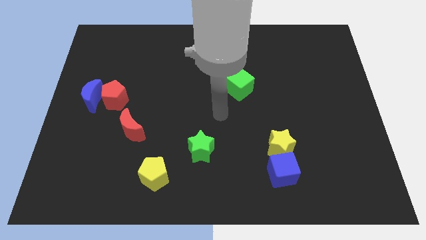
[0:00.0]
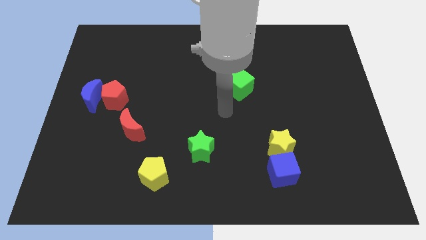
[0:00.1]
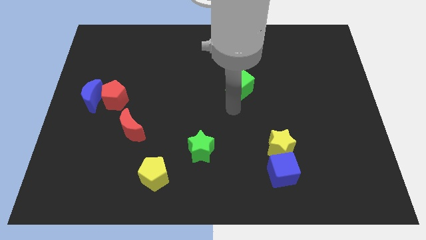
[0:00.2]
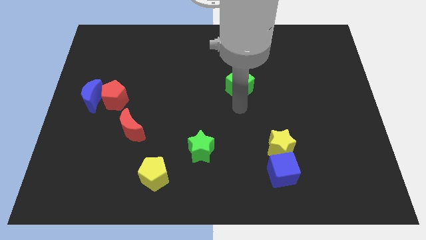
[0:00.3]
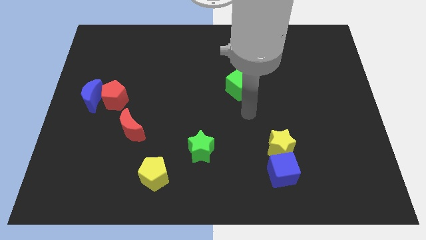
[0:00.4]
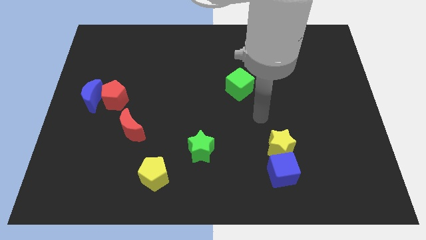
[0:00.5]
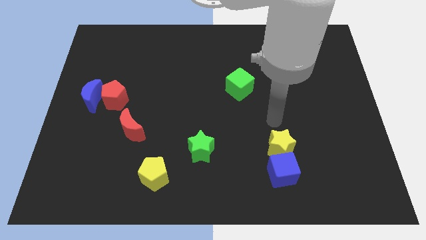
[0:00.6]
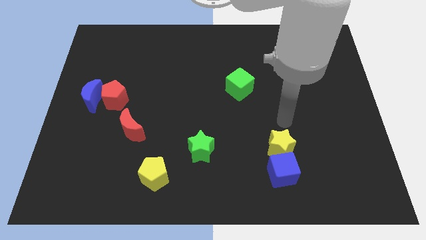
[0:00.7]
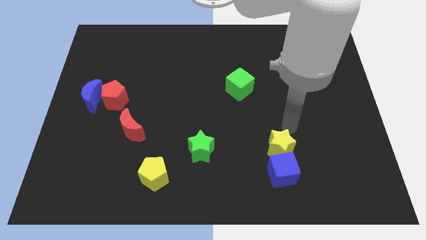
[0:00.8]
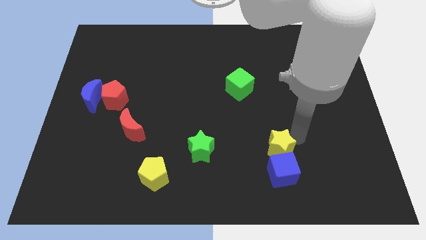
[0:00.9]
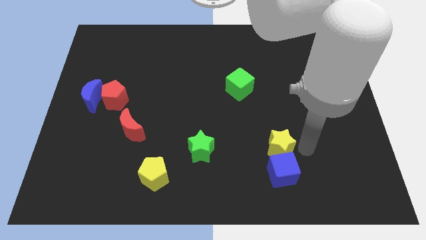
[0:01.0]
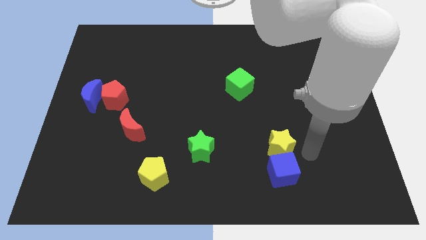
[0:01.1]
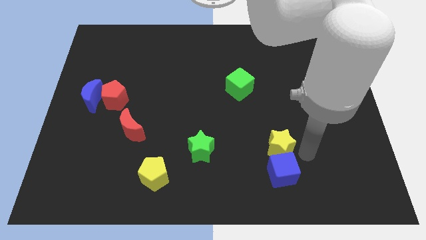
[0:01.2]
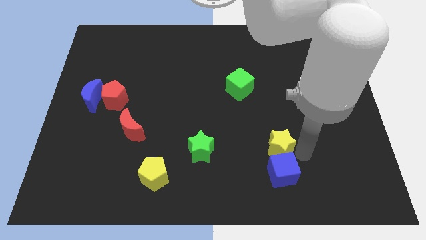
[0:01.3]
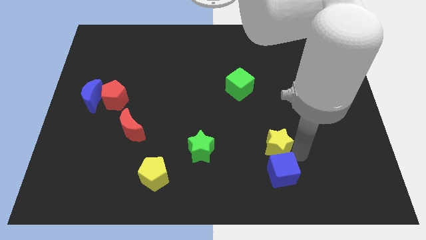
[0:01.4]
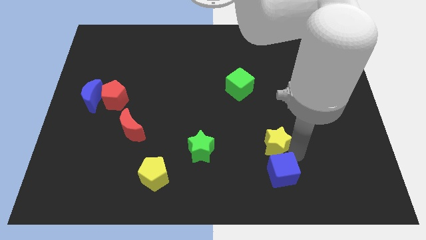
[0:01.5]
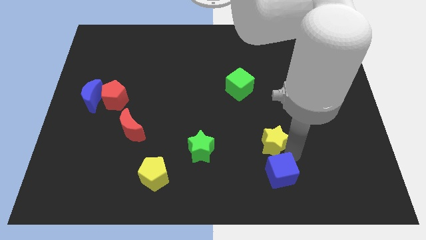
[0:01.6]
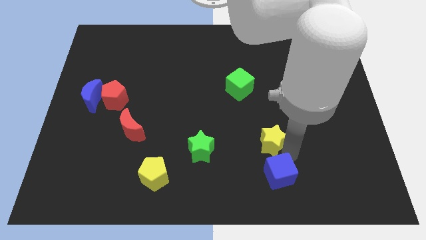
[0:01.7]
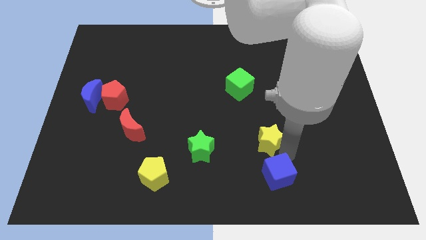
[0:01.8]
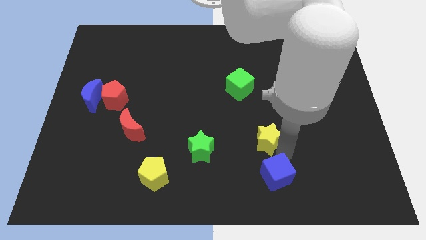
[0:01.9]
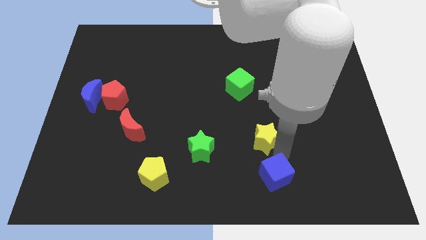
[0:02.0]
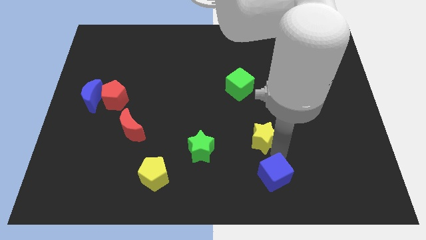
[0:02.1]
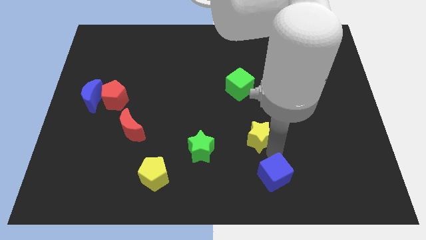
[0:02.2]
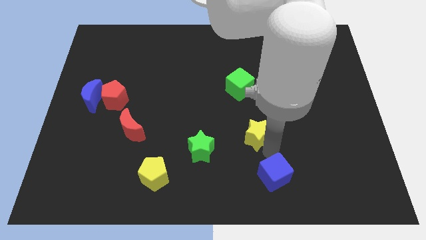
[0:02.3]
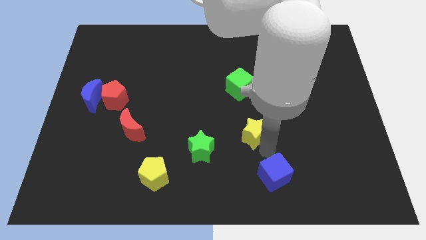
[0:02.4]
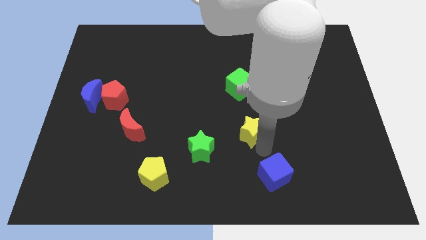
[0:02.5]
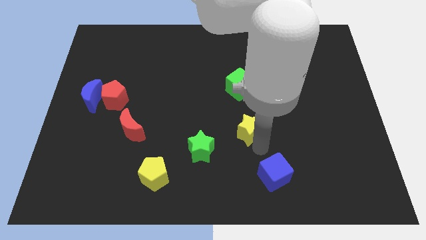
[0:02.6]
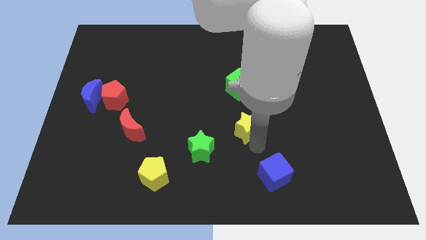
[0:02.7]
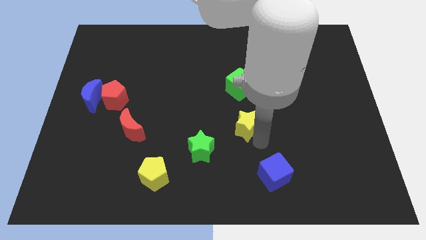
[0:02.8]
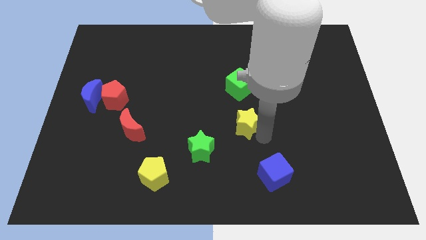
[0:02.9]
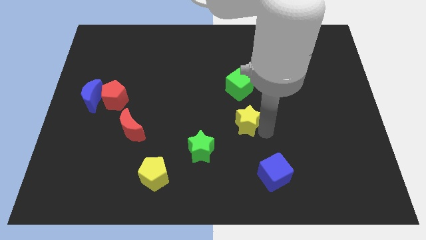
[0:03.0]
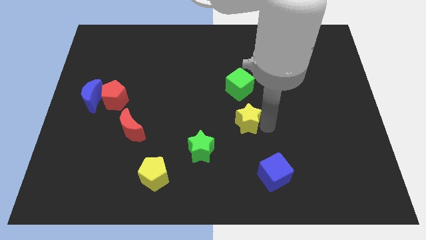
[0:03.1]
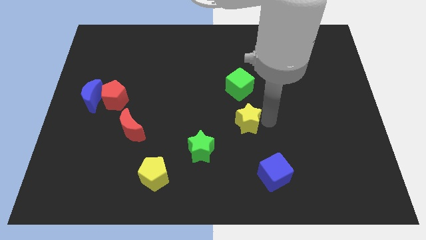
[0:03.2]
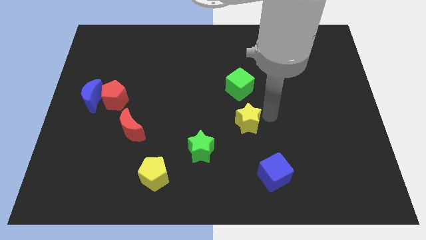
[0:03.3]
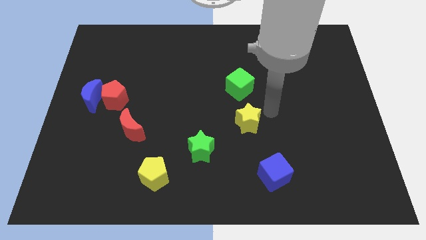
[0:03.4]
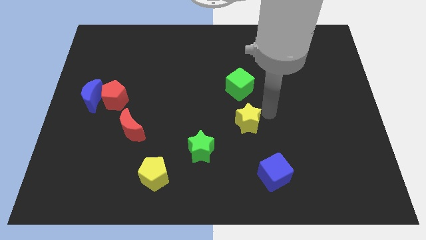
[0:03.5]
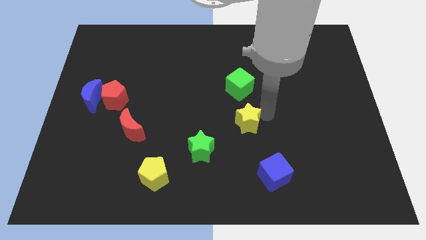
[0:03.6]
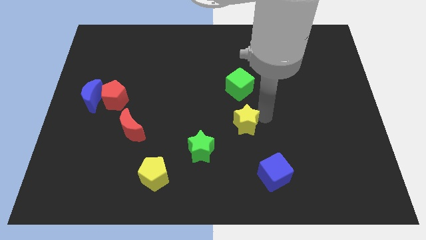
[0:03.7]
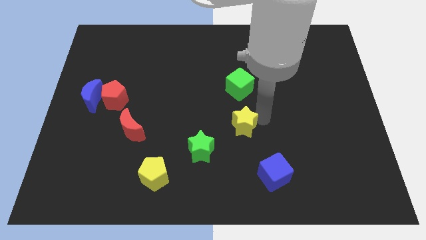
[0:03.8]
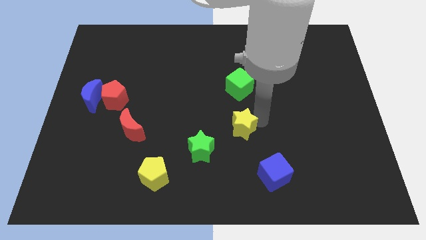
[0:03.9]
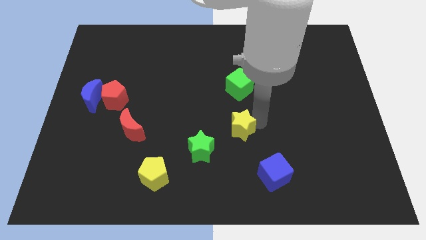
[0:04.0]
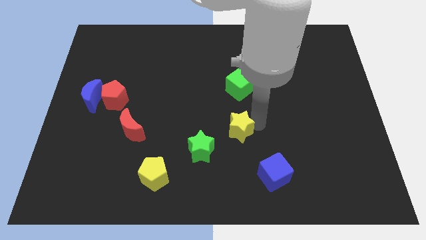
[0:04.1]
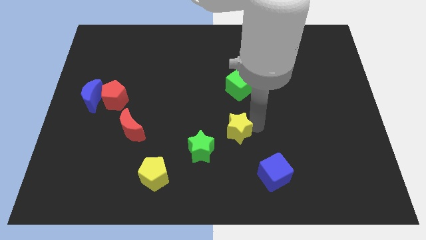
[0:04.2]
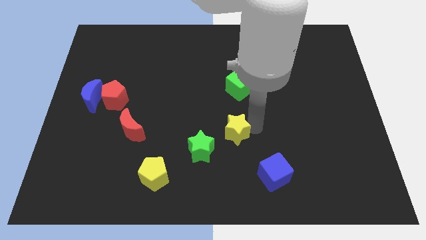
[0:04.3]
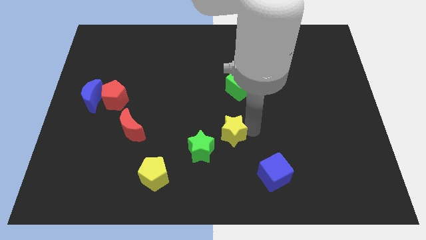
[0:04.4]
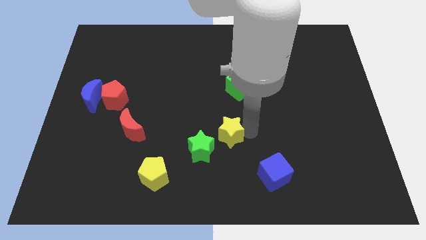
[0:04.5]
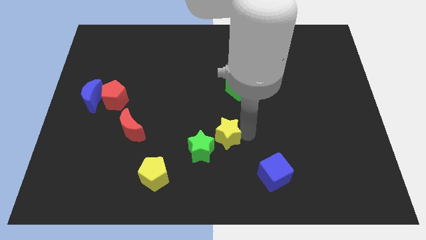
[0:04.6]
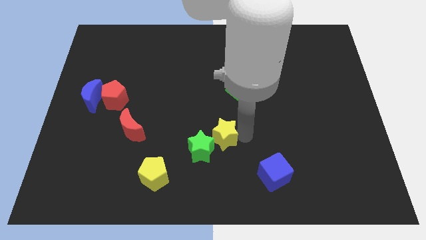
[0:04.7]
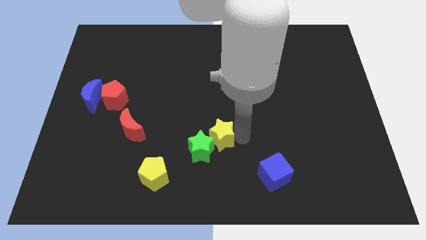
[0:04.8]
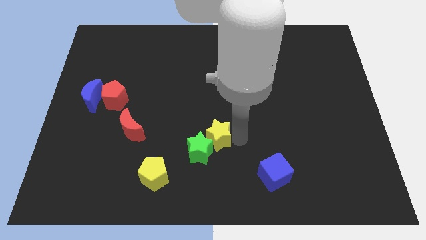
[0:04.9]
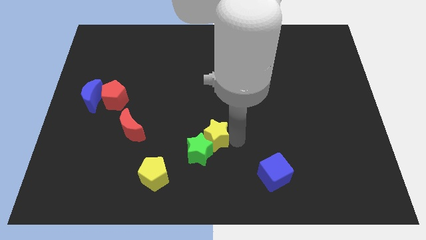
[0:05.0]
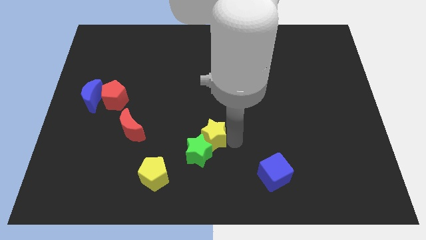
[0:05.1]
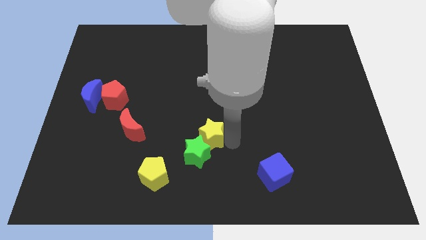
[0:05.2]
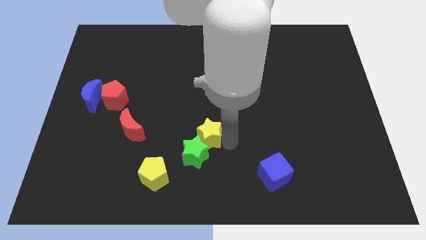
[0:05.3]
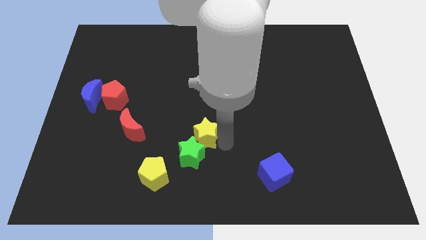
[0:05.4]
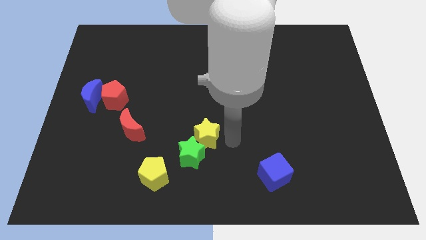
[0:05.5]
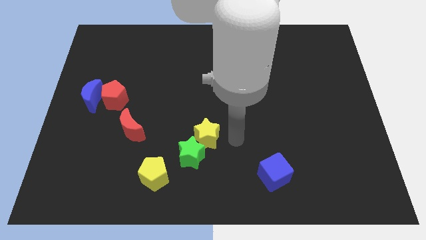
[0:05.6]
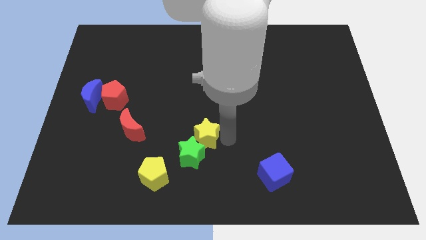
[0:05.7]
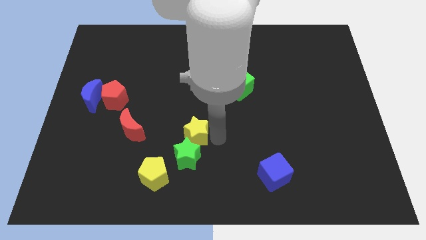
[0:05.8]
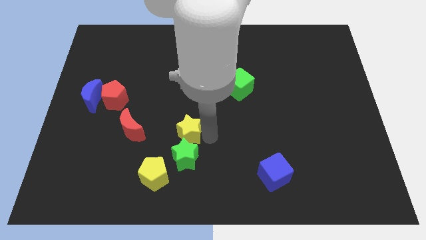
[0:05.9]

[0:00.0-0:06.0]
push the yellow star diagonally up and to the left of the green star

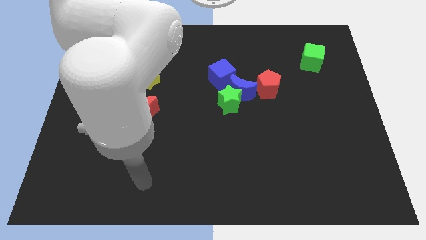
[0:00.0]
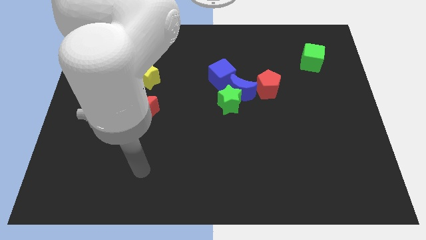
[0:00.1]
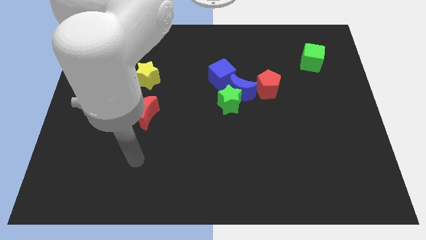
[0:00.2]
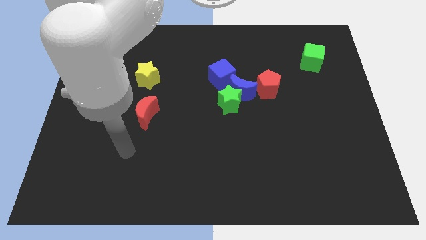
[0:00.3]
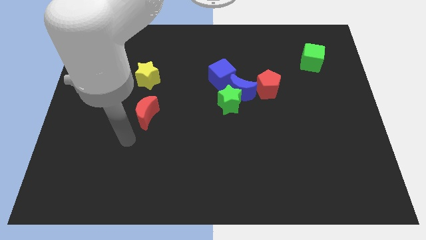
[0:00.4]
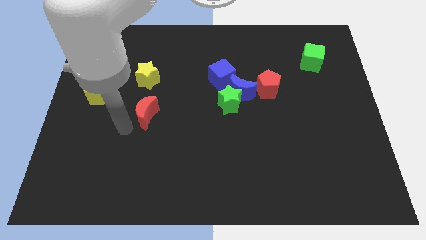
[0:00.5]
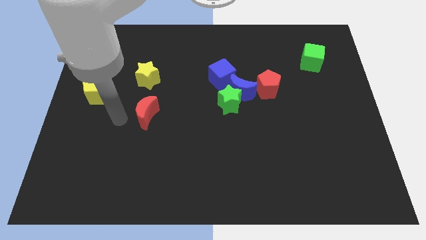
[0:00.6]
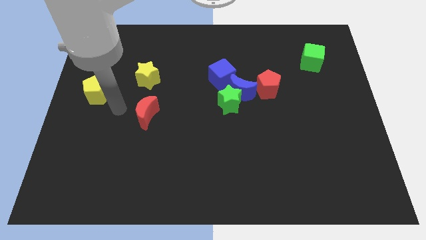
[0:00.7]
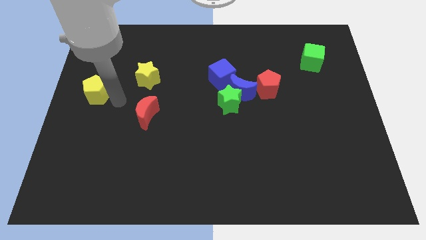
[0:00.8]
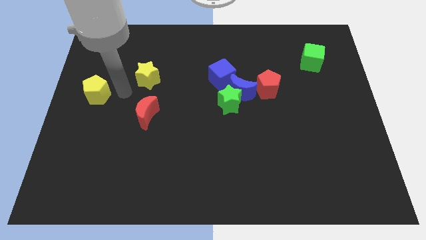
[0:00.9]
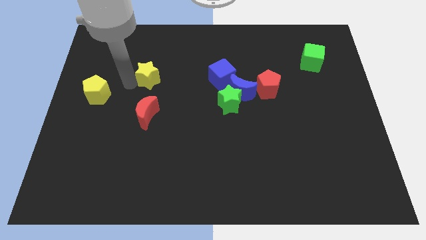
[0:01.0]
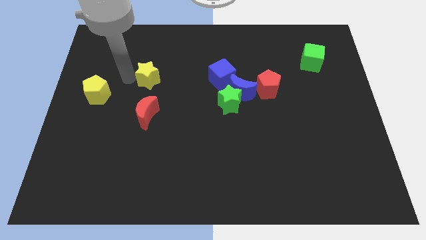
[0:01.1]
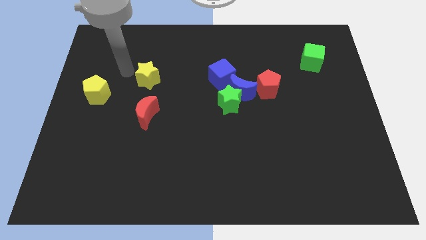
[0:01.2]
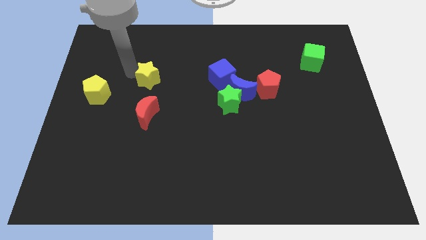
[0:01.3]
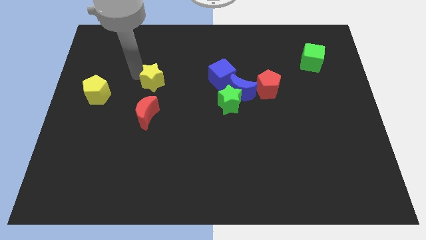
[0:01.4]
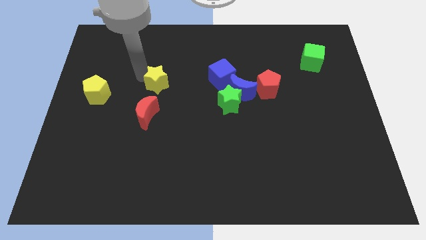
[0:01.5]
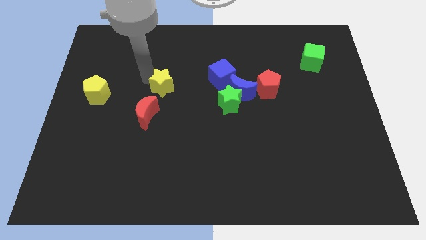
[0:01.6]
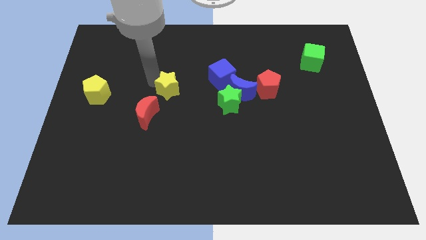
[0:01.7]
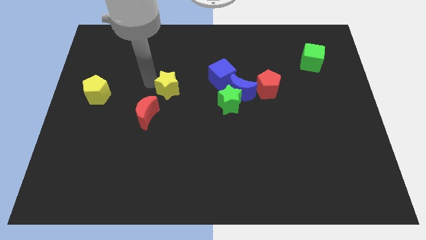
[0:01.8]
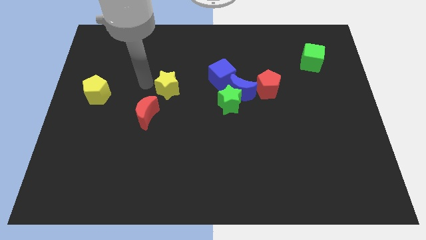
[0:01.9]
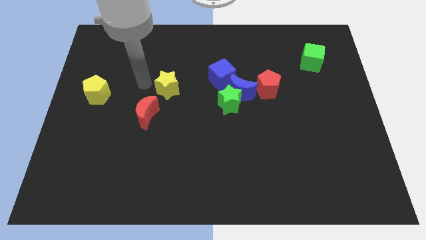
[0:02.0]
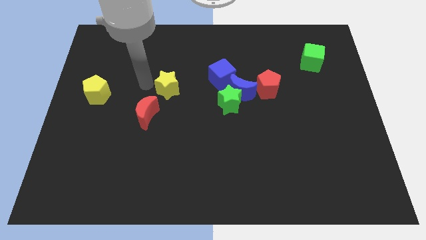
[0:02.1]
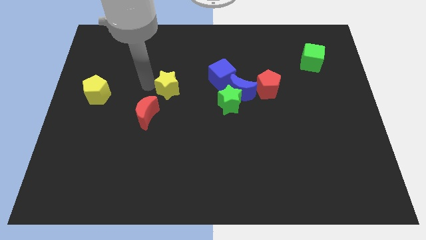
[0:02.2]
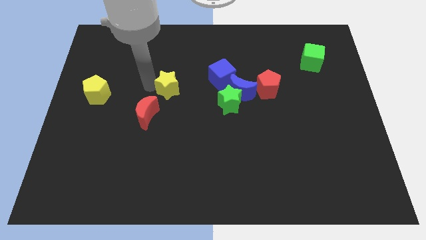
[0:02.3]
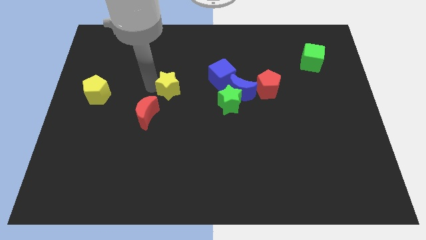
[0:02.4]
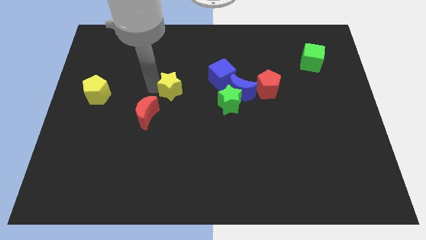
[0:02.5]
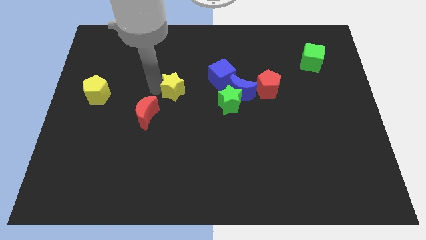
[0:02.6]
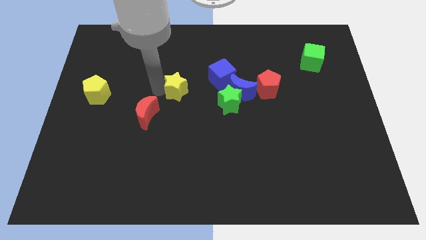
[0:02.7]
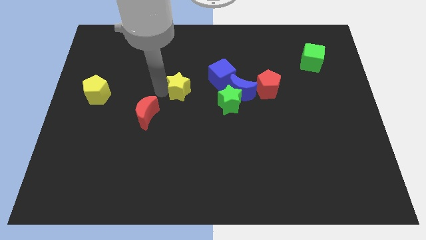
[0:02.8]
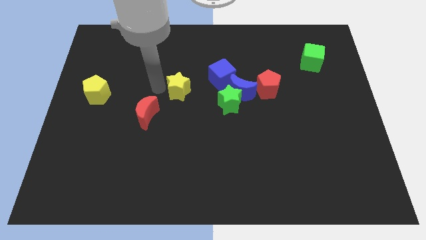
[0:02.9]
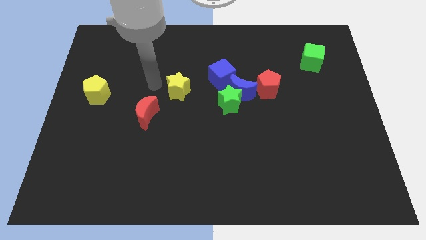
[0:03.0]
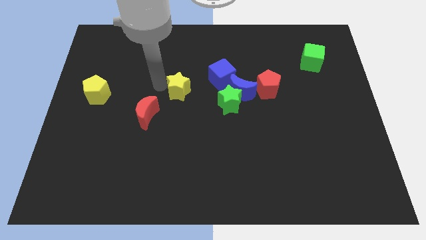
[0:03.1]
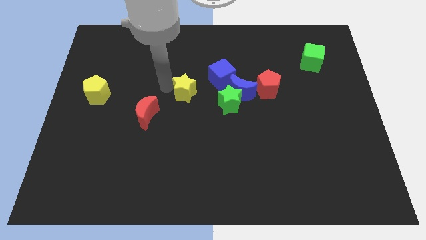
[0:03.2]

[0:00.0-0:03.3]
slide the yellow star diagonally down and to the left of the blue cube
